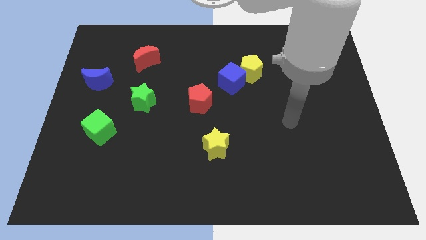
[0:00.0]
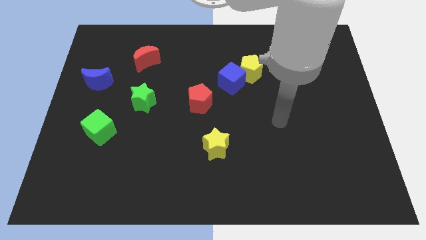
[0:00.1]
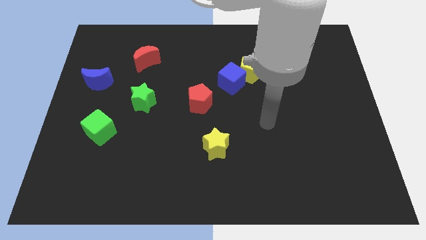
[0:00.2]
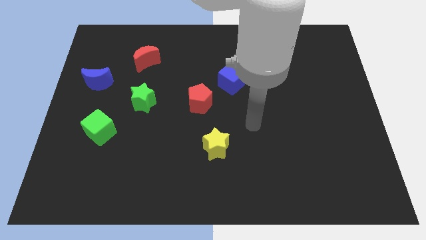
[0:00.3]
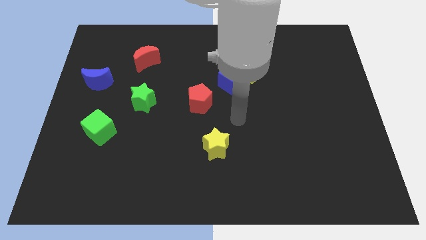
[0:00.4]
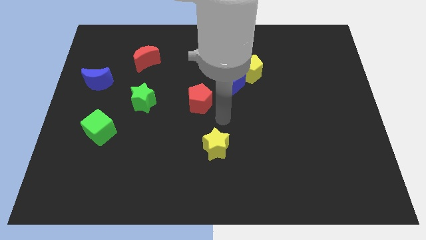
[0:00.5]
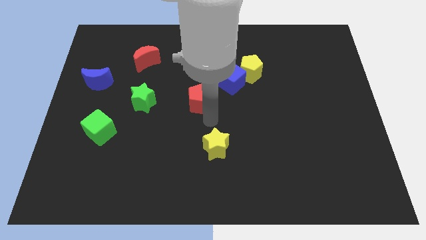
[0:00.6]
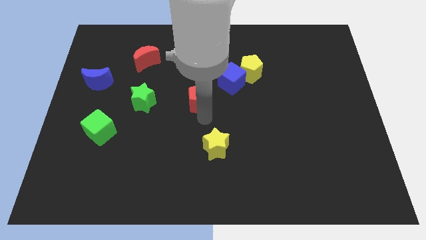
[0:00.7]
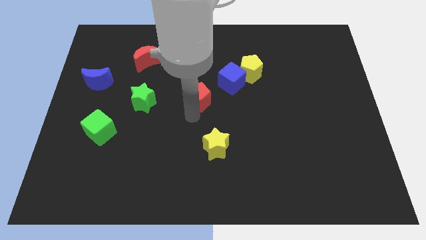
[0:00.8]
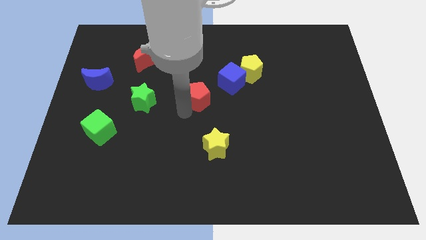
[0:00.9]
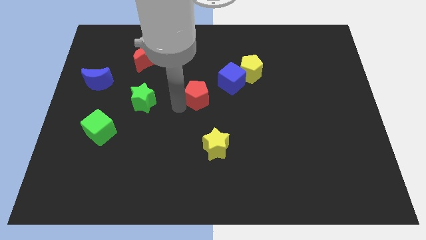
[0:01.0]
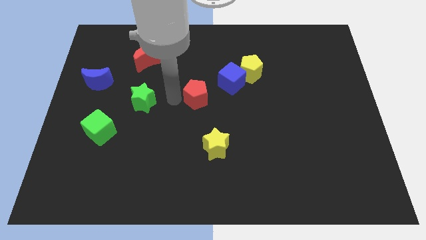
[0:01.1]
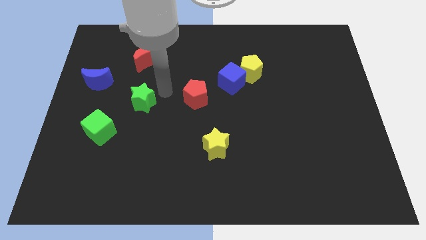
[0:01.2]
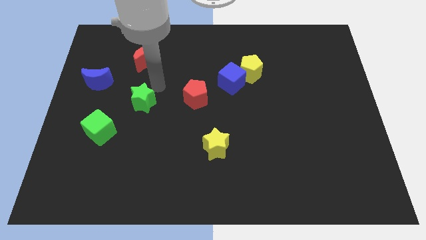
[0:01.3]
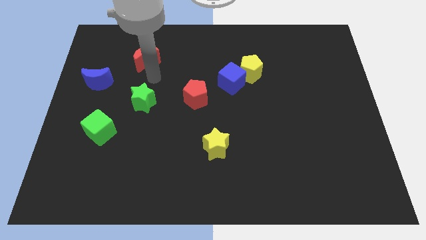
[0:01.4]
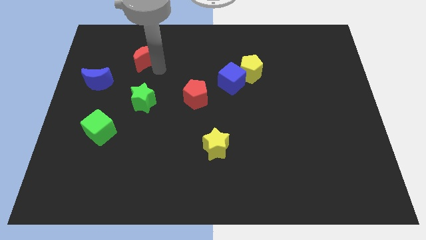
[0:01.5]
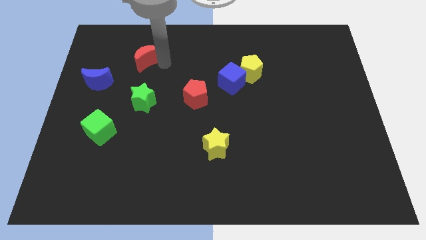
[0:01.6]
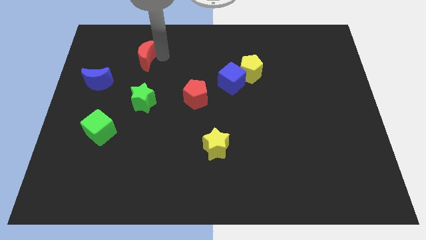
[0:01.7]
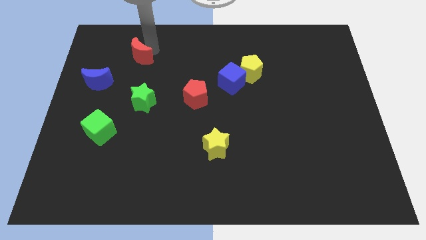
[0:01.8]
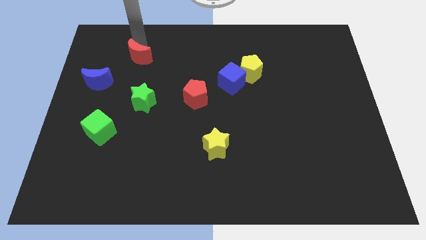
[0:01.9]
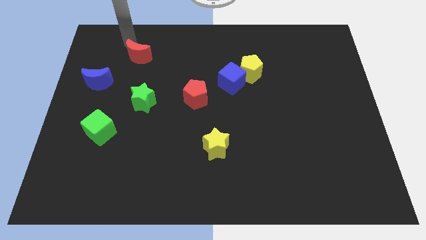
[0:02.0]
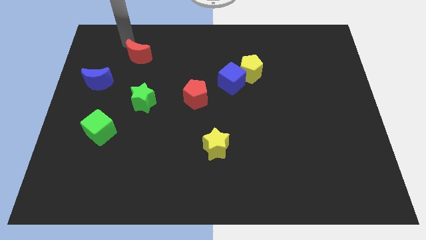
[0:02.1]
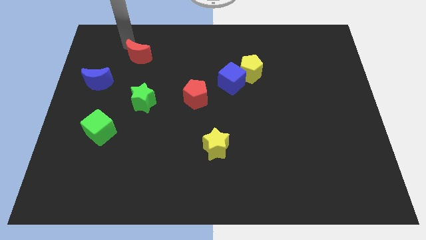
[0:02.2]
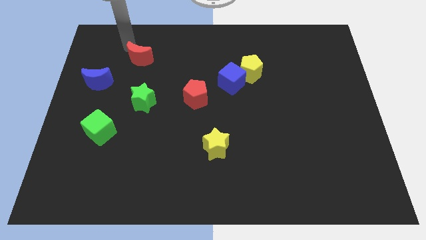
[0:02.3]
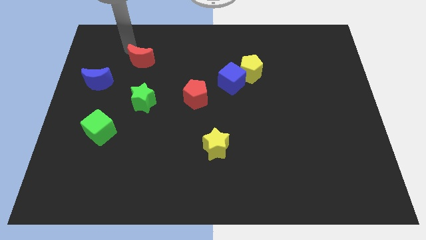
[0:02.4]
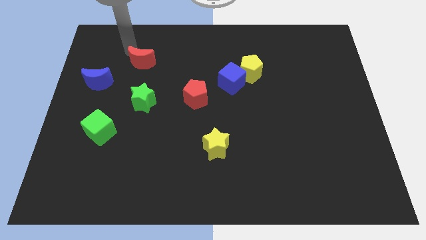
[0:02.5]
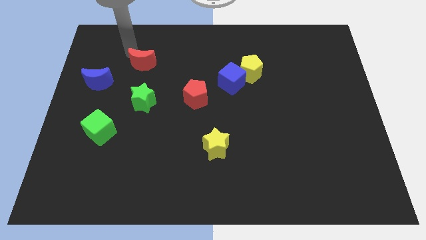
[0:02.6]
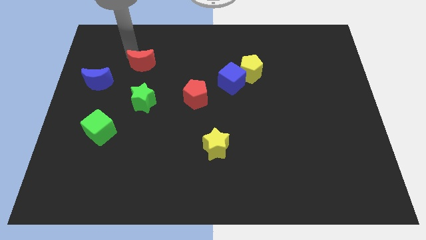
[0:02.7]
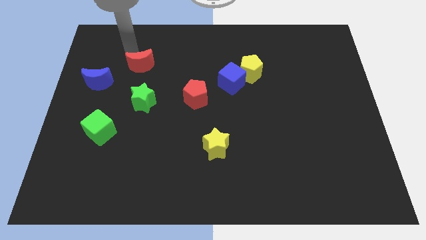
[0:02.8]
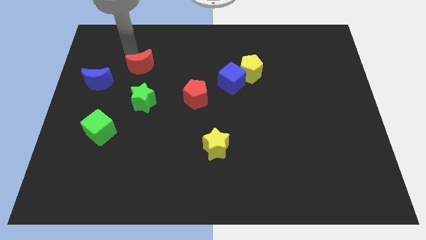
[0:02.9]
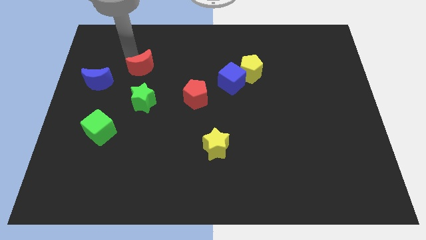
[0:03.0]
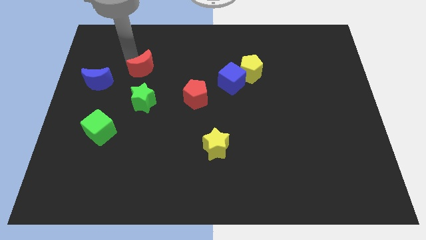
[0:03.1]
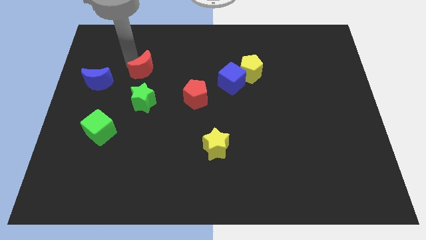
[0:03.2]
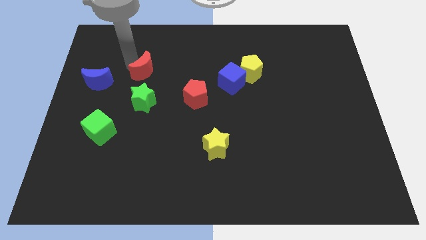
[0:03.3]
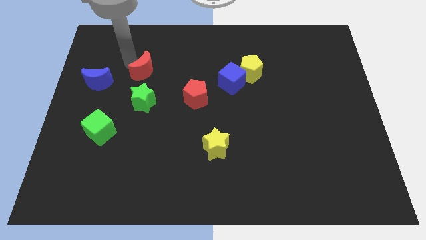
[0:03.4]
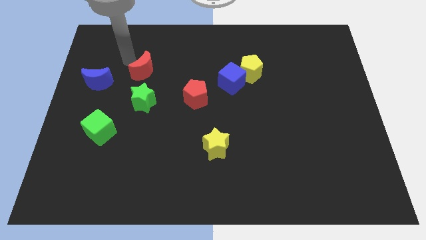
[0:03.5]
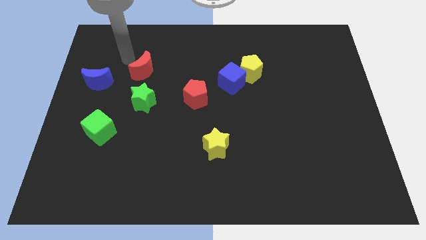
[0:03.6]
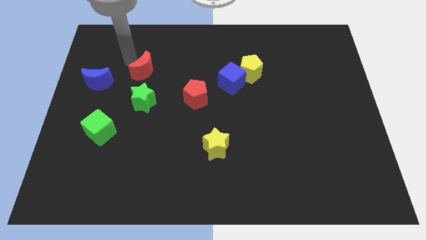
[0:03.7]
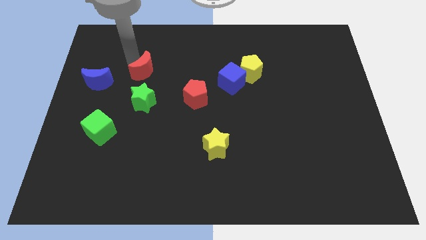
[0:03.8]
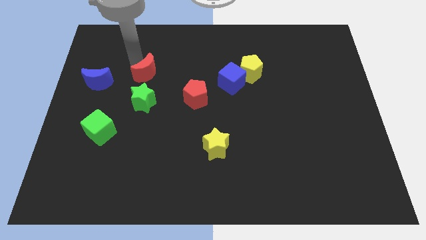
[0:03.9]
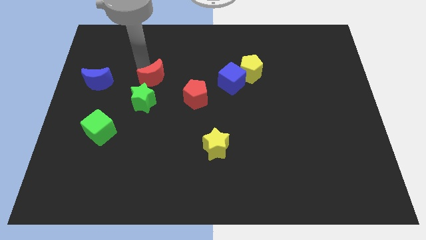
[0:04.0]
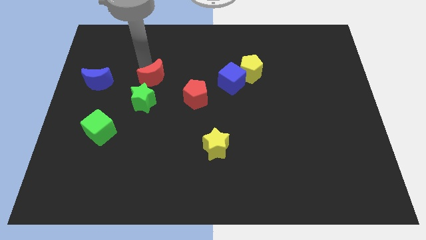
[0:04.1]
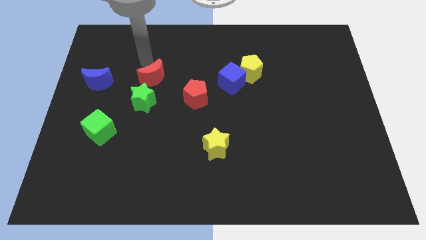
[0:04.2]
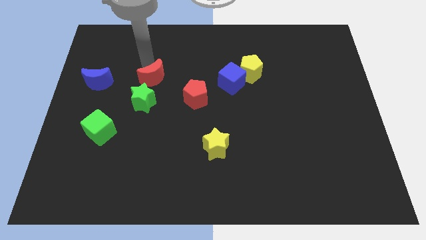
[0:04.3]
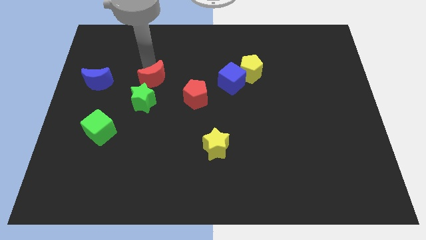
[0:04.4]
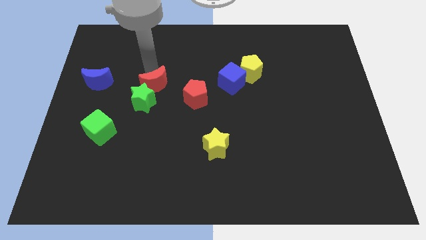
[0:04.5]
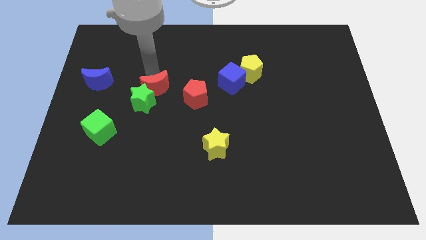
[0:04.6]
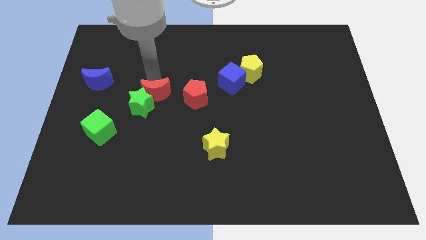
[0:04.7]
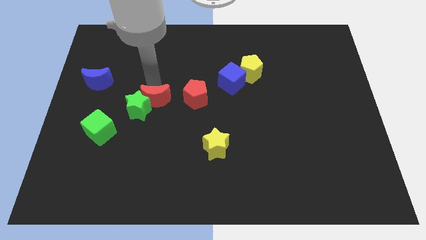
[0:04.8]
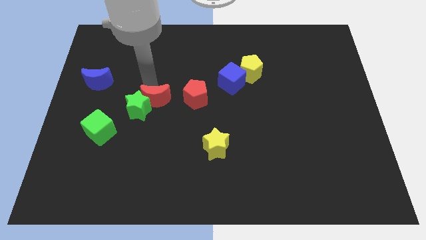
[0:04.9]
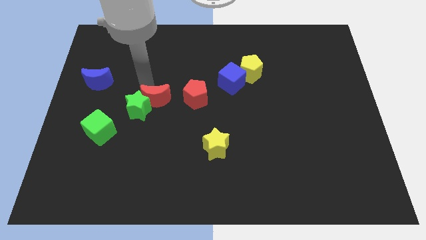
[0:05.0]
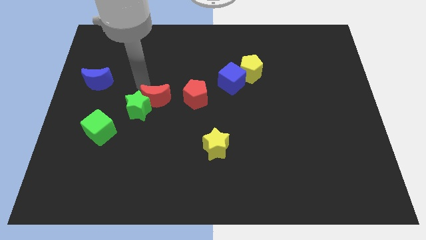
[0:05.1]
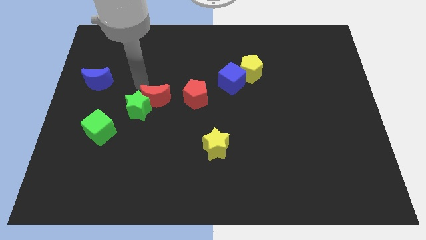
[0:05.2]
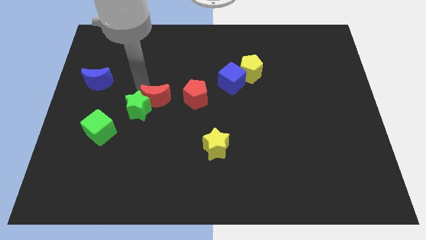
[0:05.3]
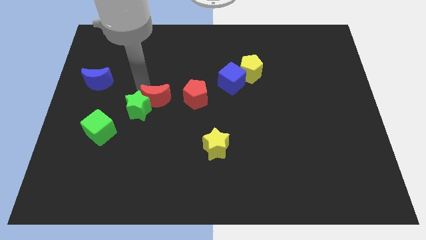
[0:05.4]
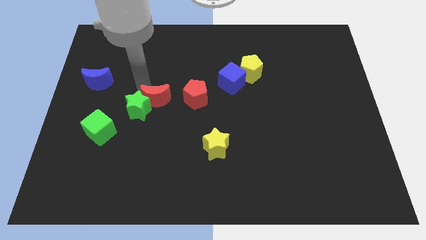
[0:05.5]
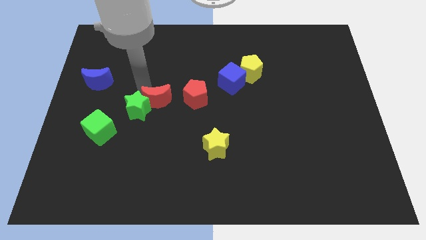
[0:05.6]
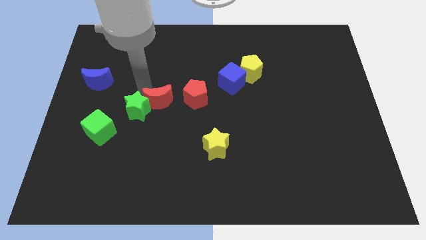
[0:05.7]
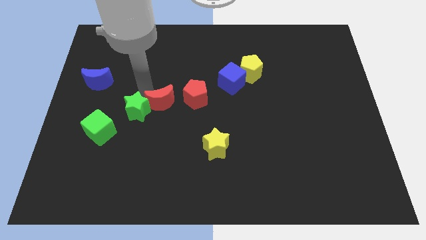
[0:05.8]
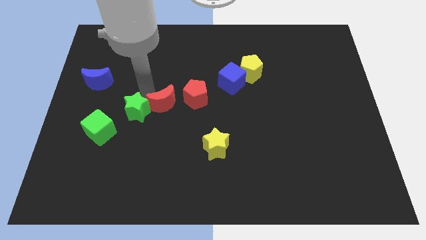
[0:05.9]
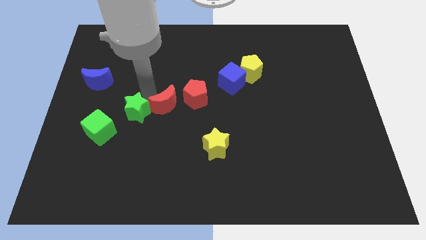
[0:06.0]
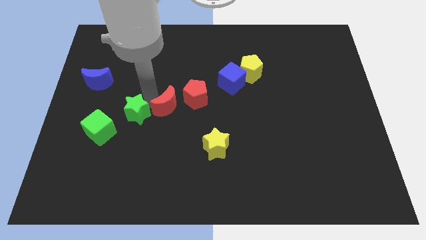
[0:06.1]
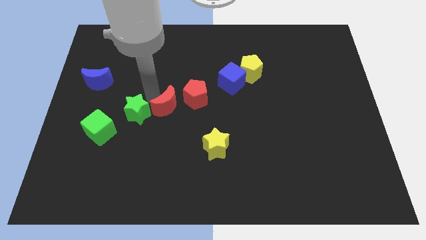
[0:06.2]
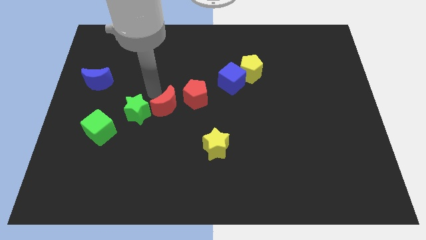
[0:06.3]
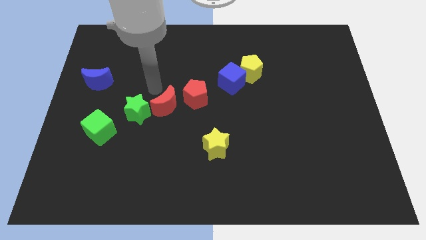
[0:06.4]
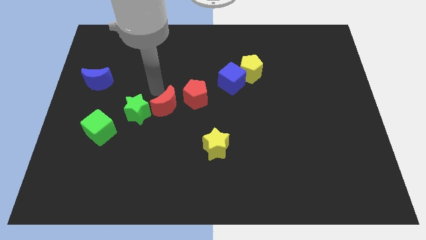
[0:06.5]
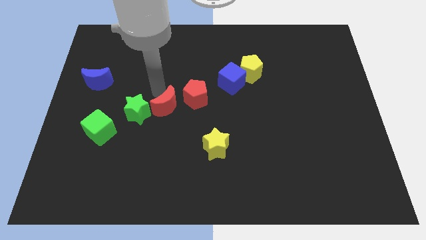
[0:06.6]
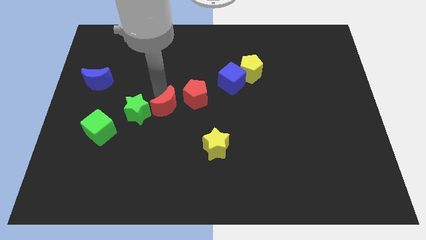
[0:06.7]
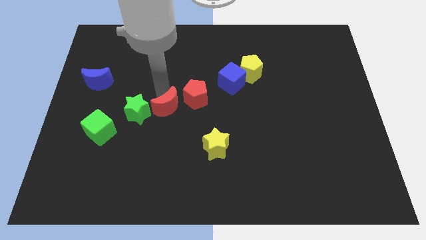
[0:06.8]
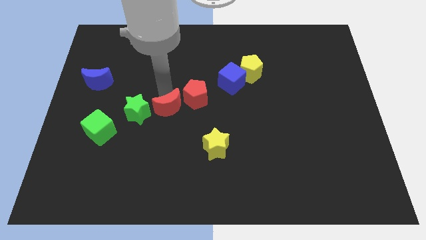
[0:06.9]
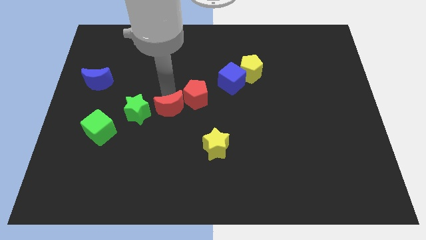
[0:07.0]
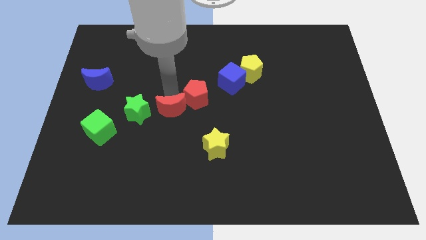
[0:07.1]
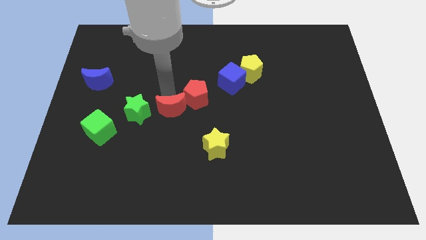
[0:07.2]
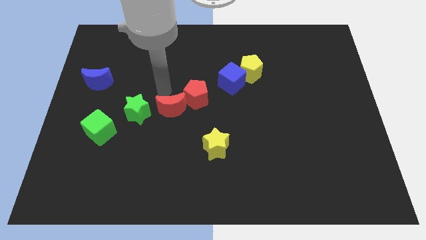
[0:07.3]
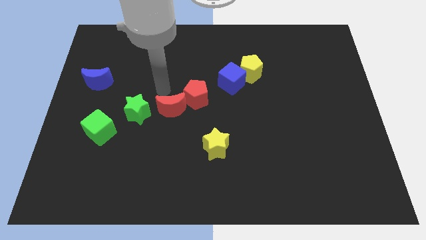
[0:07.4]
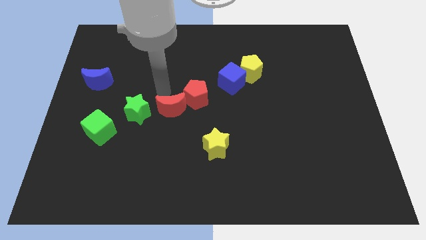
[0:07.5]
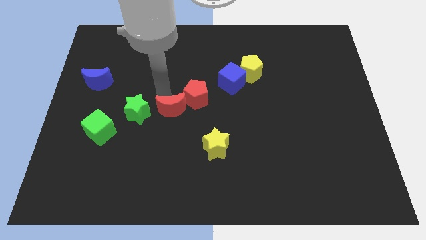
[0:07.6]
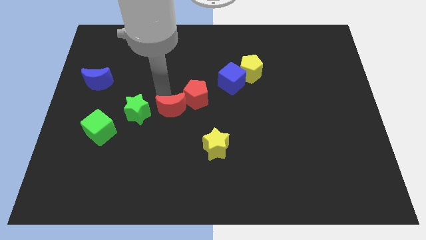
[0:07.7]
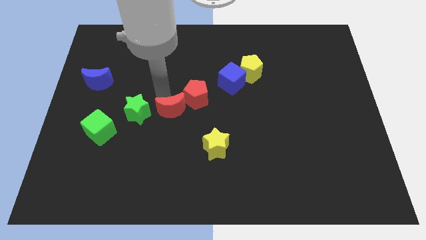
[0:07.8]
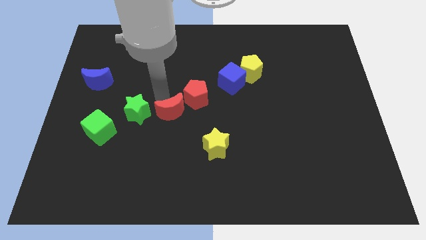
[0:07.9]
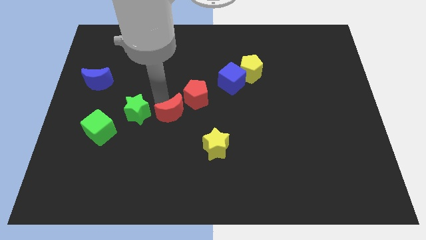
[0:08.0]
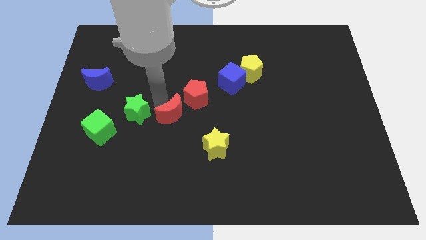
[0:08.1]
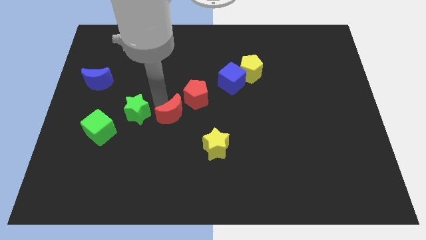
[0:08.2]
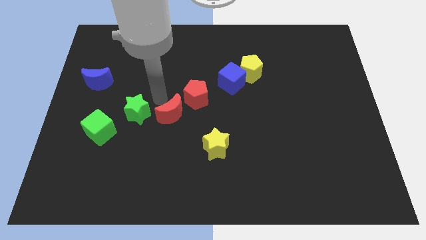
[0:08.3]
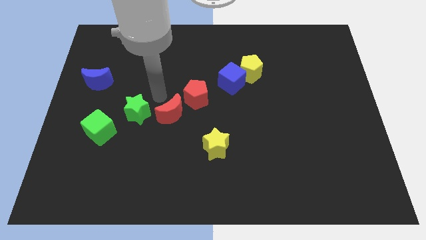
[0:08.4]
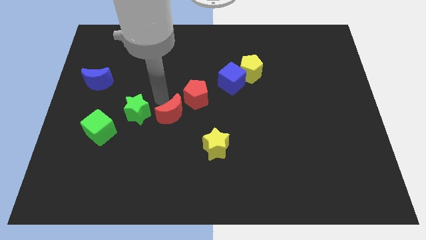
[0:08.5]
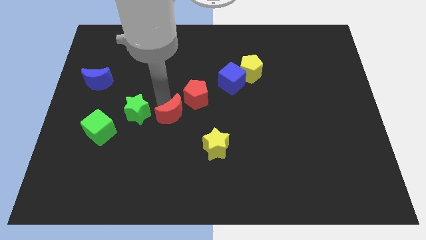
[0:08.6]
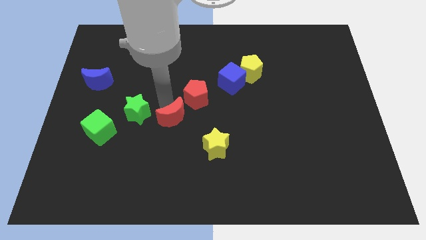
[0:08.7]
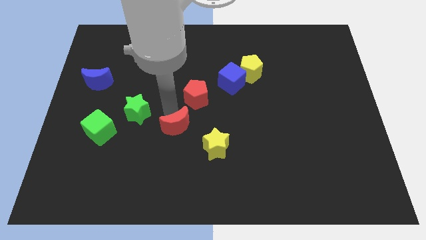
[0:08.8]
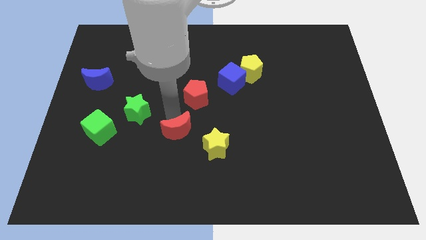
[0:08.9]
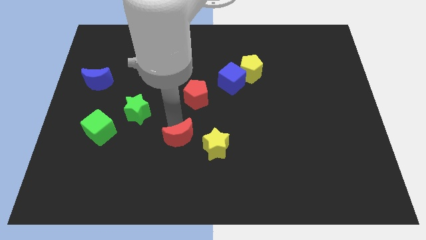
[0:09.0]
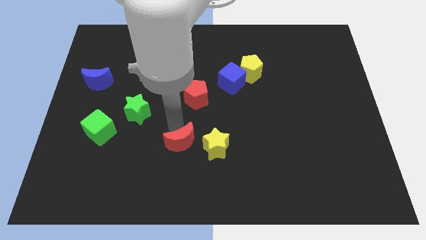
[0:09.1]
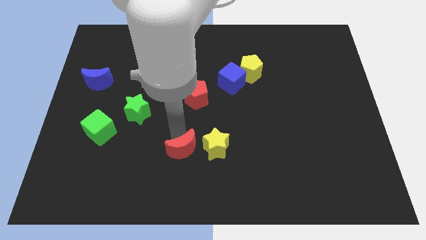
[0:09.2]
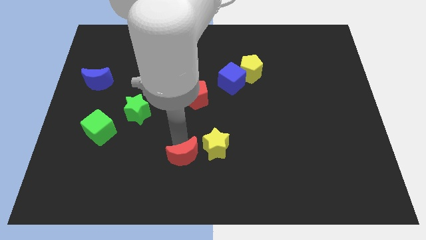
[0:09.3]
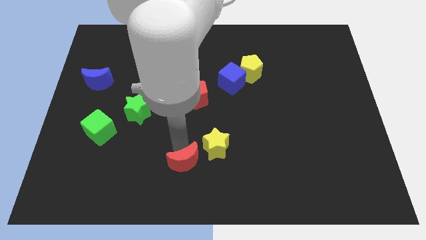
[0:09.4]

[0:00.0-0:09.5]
move the red moon to the bottom
